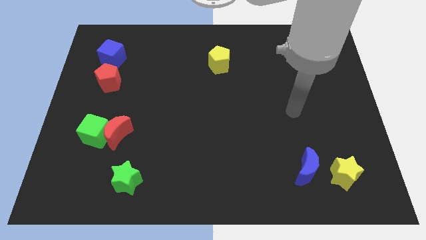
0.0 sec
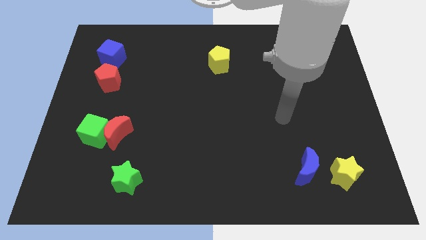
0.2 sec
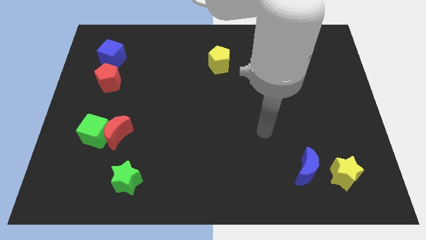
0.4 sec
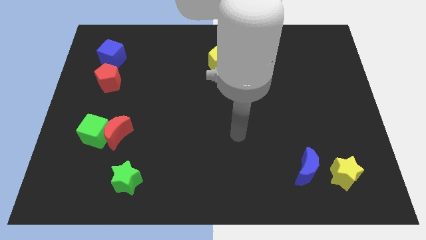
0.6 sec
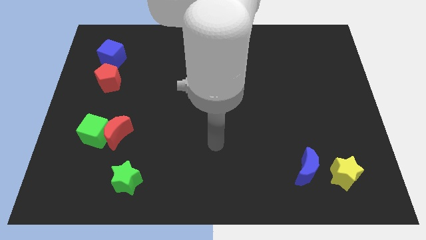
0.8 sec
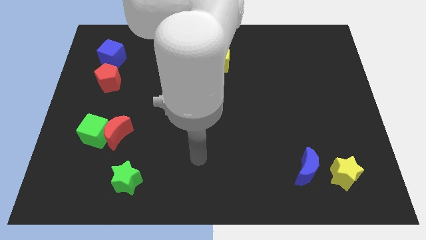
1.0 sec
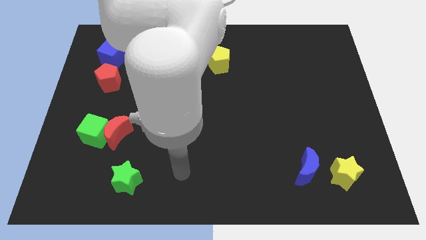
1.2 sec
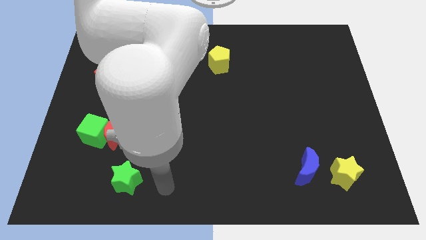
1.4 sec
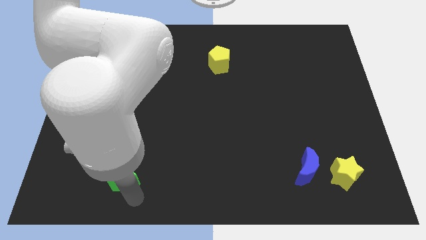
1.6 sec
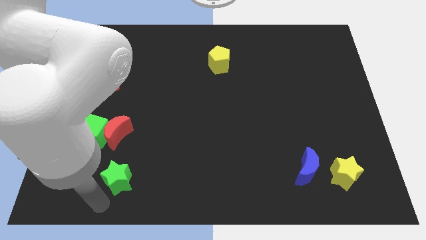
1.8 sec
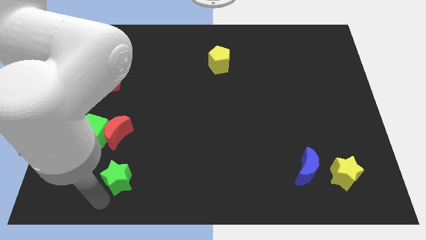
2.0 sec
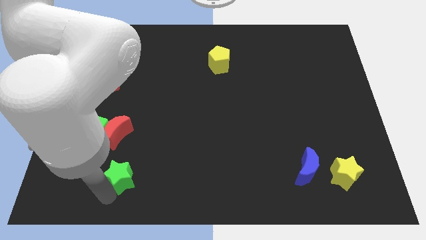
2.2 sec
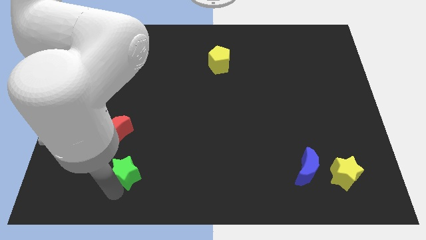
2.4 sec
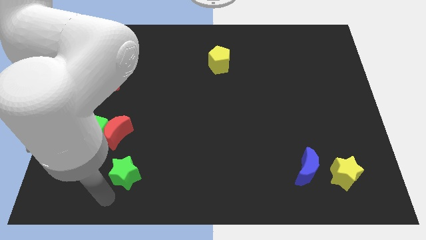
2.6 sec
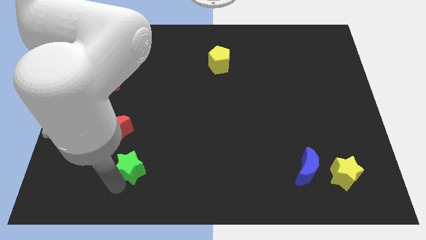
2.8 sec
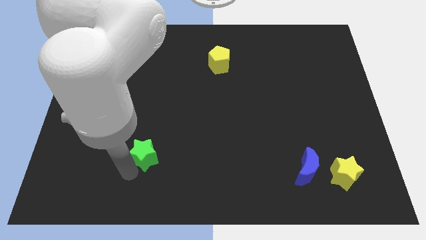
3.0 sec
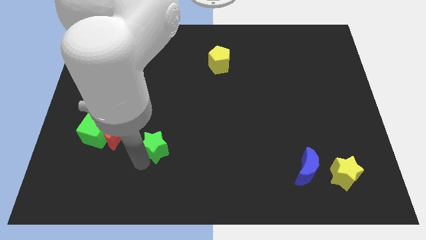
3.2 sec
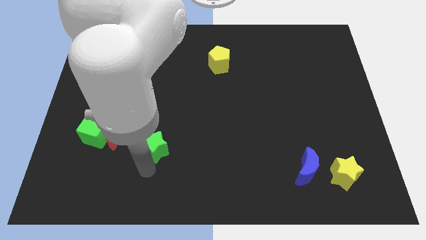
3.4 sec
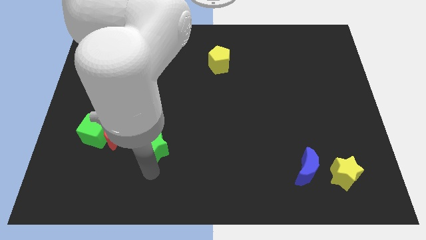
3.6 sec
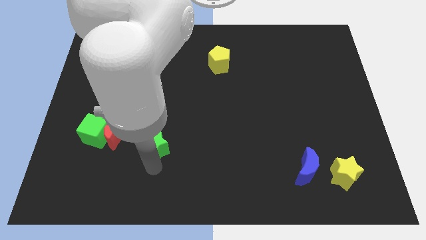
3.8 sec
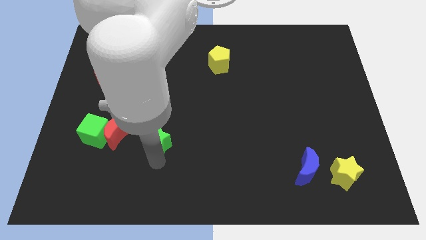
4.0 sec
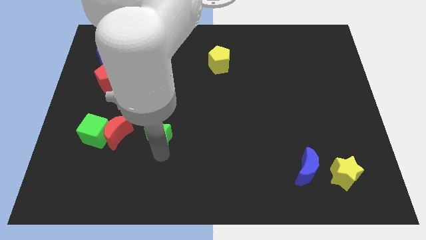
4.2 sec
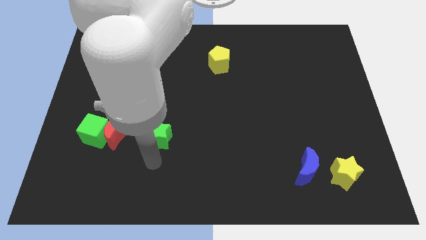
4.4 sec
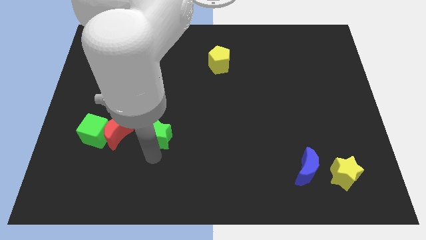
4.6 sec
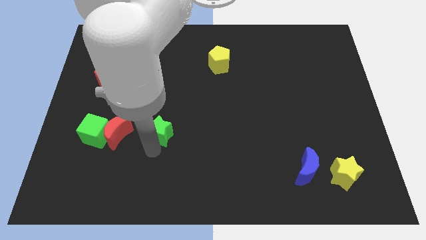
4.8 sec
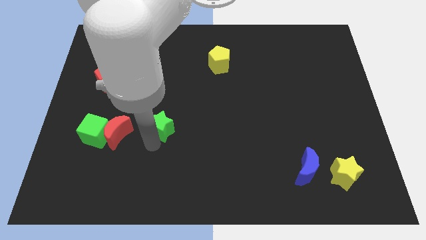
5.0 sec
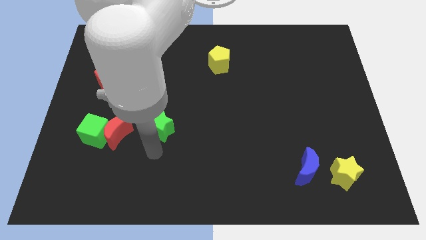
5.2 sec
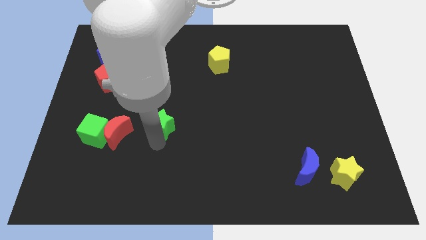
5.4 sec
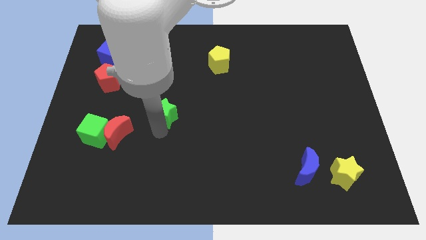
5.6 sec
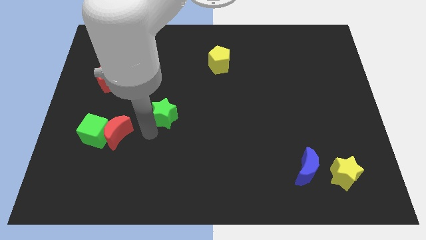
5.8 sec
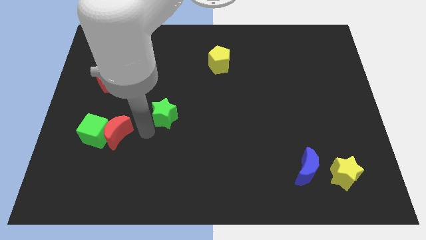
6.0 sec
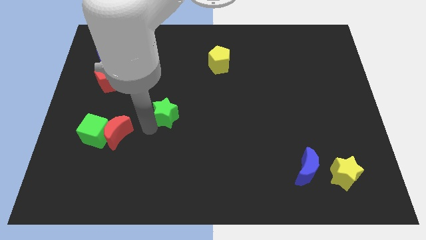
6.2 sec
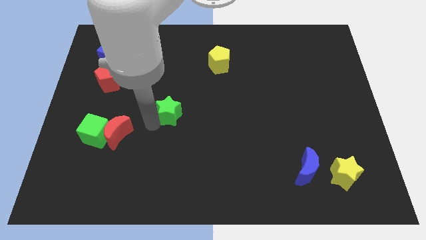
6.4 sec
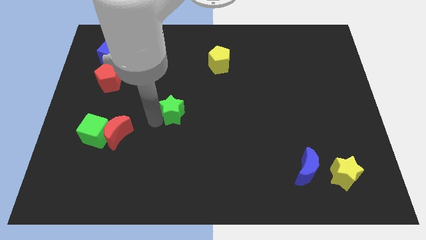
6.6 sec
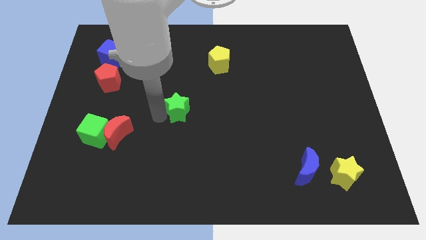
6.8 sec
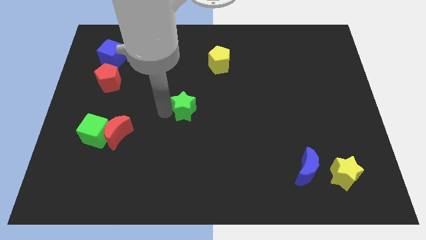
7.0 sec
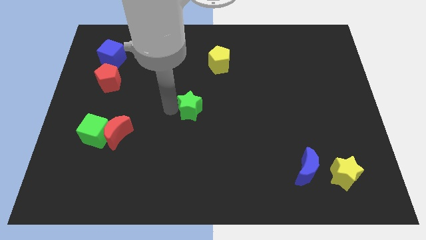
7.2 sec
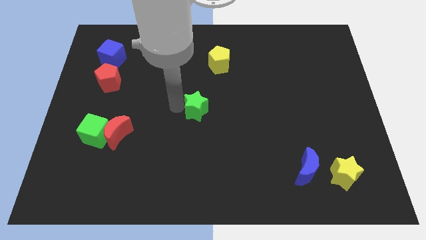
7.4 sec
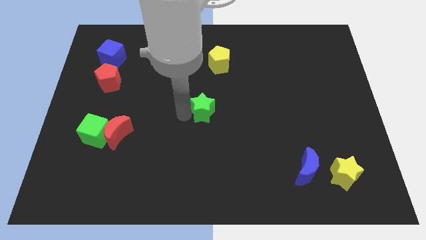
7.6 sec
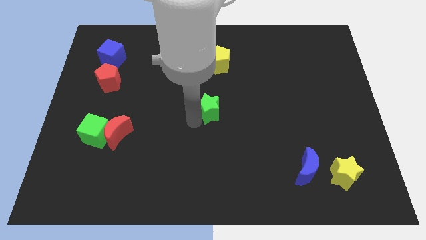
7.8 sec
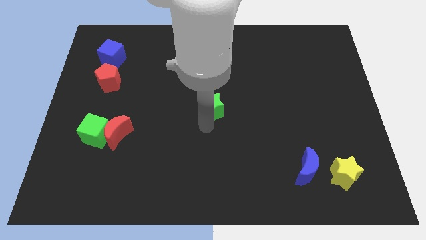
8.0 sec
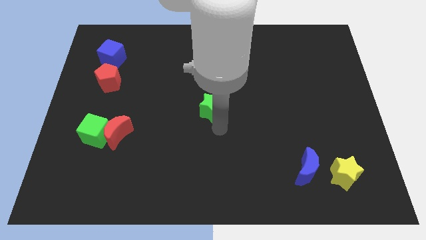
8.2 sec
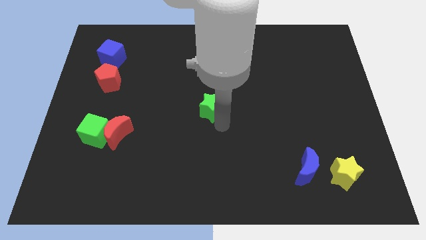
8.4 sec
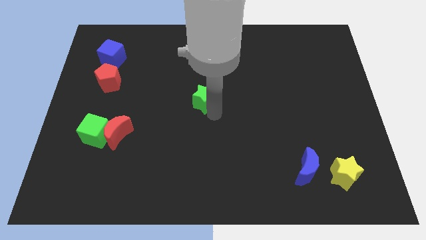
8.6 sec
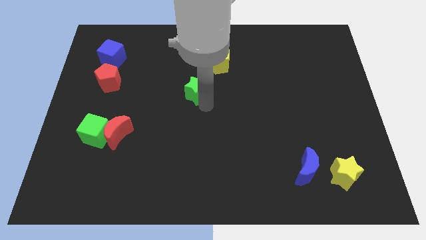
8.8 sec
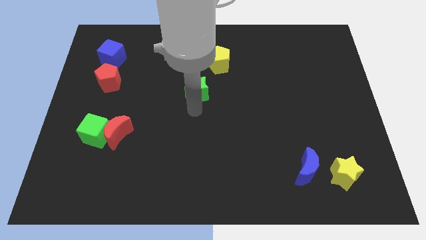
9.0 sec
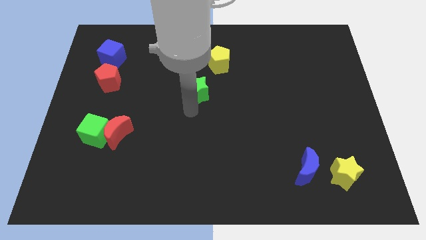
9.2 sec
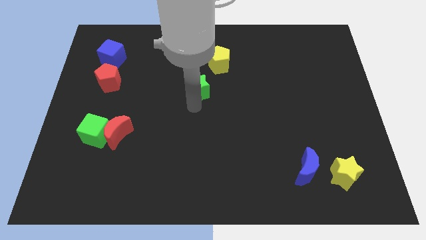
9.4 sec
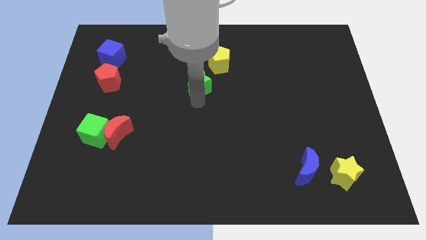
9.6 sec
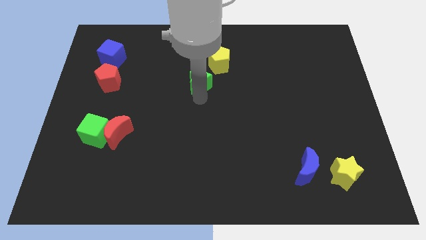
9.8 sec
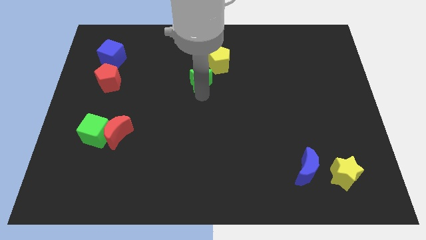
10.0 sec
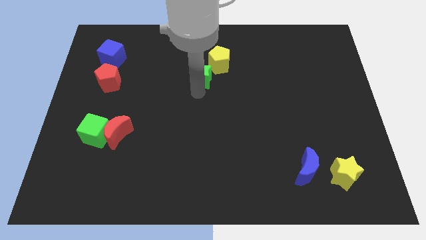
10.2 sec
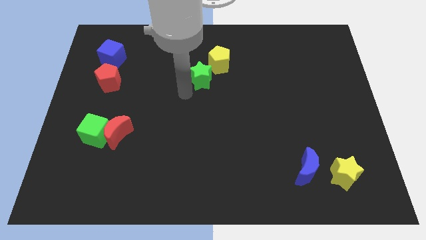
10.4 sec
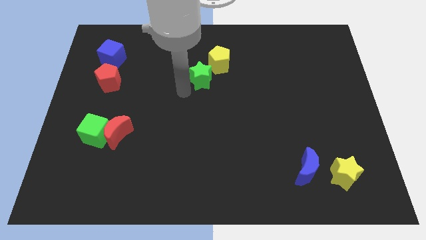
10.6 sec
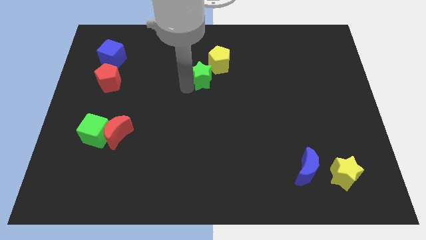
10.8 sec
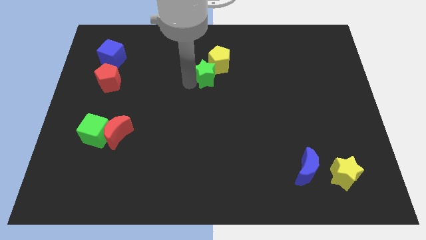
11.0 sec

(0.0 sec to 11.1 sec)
slide the green star next to the yellow pentagon

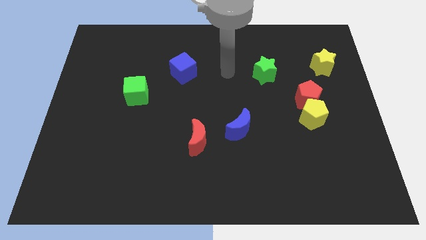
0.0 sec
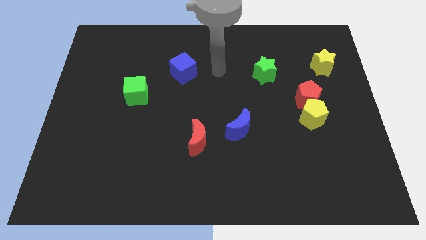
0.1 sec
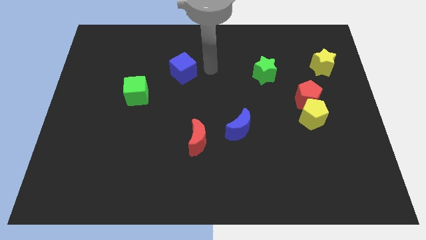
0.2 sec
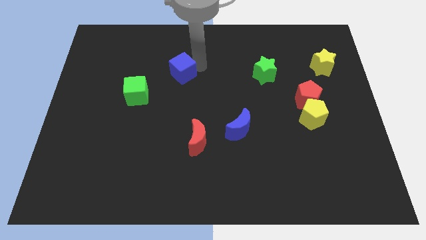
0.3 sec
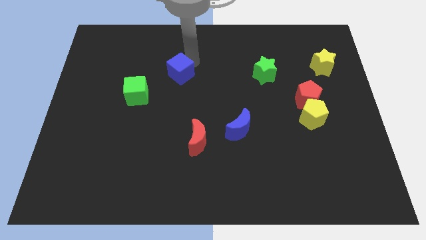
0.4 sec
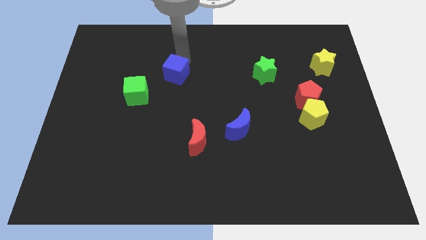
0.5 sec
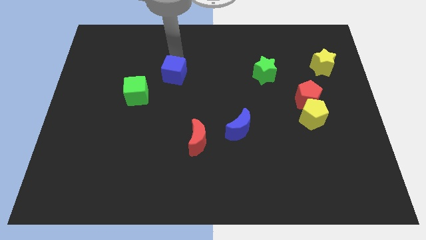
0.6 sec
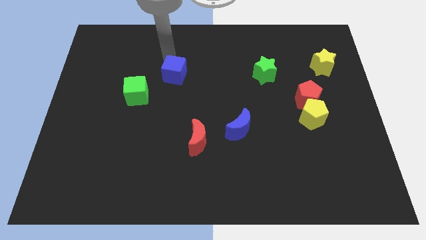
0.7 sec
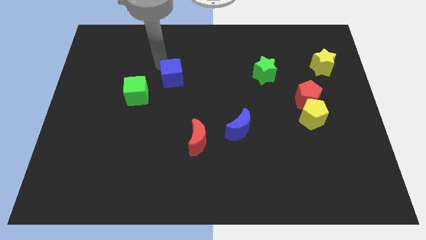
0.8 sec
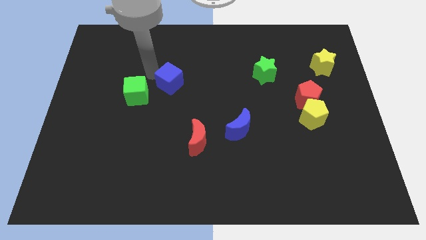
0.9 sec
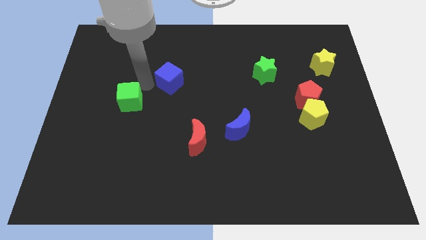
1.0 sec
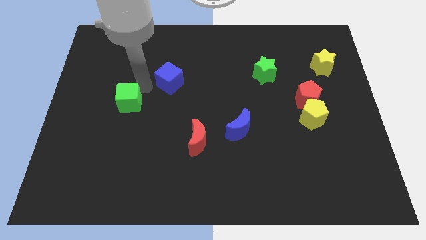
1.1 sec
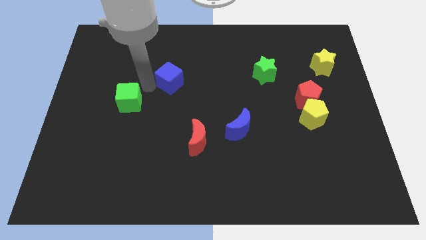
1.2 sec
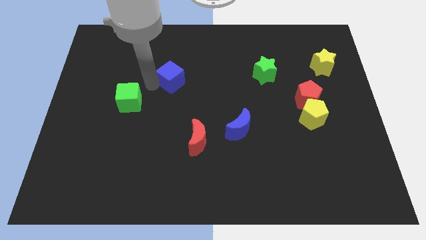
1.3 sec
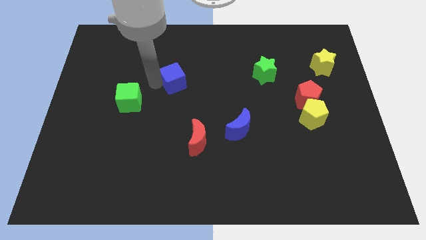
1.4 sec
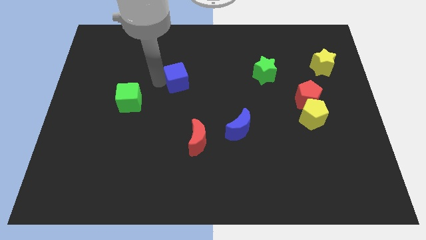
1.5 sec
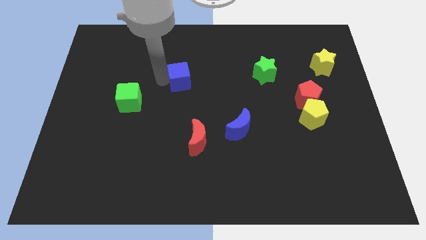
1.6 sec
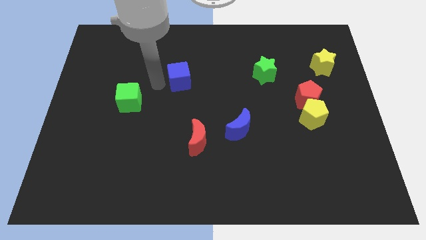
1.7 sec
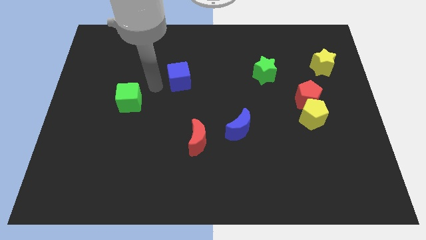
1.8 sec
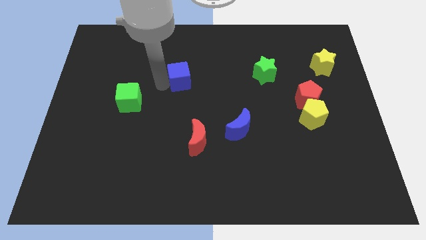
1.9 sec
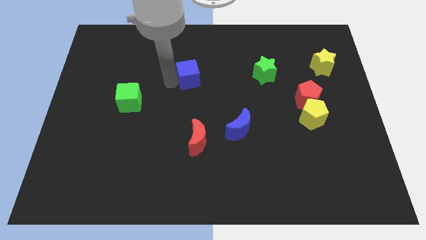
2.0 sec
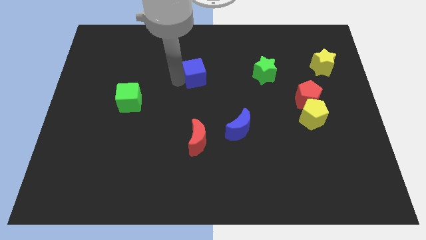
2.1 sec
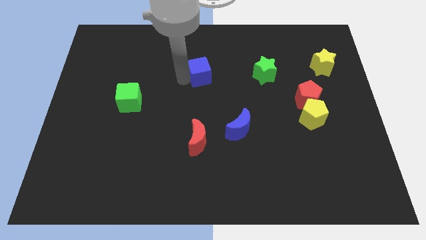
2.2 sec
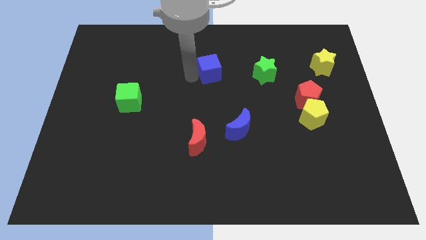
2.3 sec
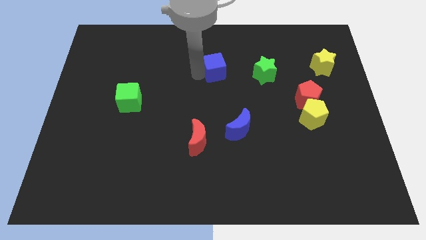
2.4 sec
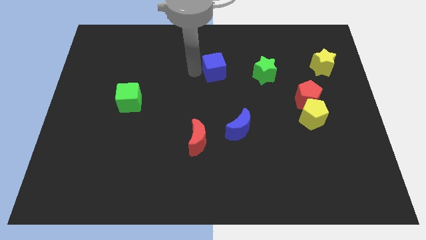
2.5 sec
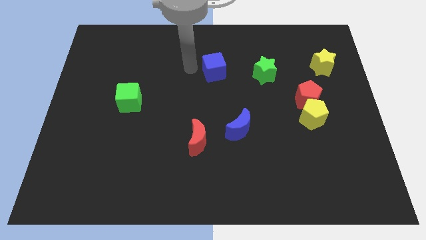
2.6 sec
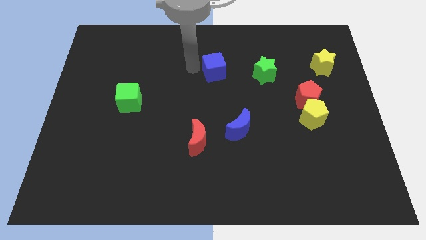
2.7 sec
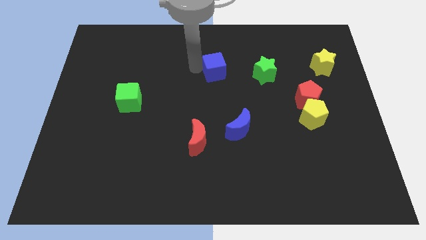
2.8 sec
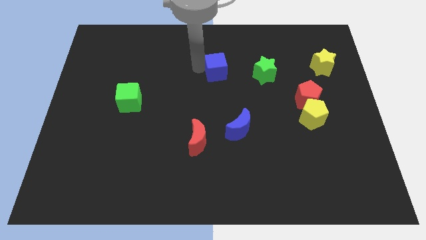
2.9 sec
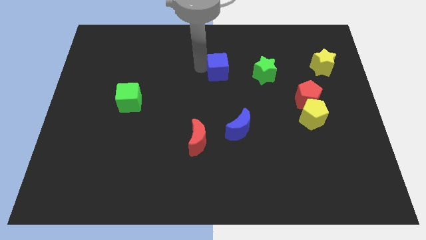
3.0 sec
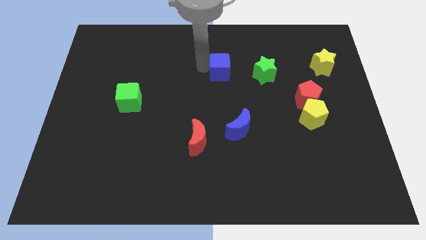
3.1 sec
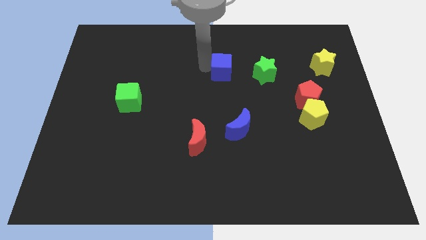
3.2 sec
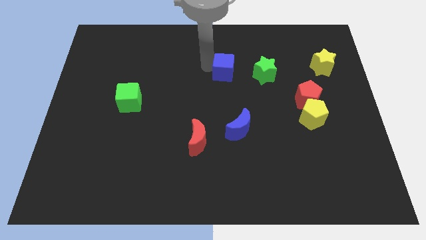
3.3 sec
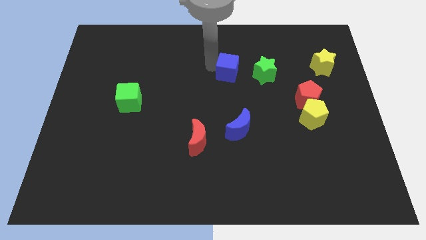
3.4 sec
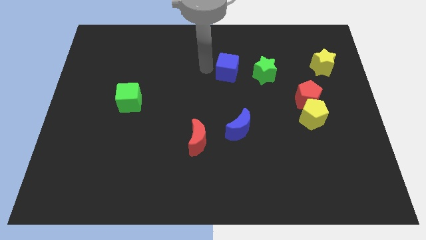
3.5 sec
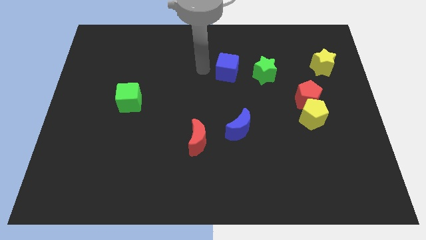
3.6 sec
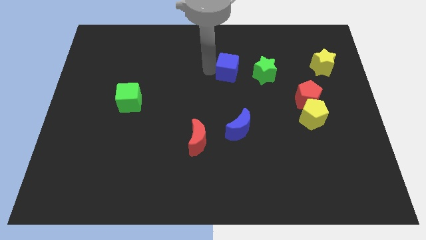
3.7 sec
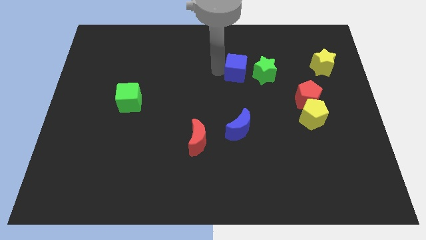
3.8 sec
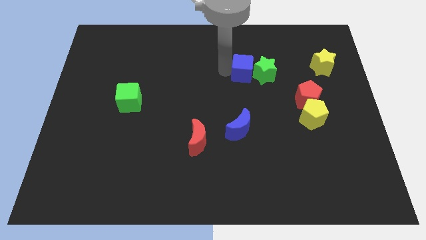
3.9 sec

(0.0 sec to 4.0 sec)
move the blue cube to the green star
